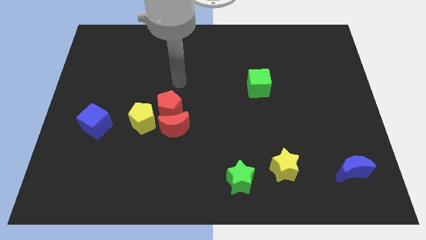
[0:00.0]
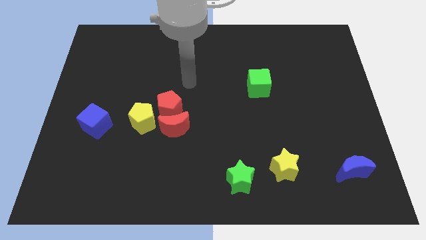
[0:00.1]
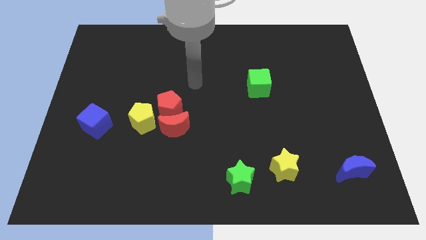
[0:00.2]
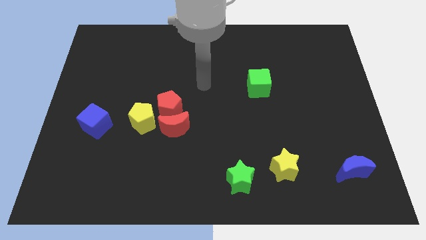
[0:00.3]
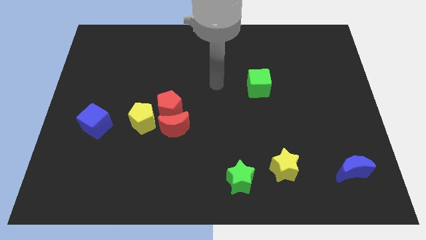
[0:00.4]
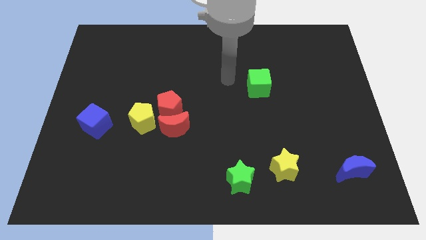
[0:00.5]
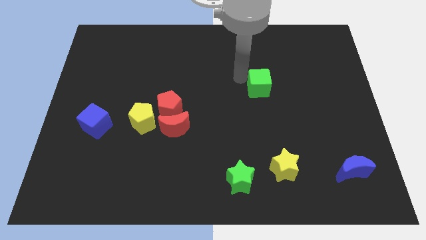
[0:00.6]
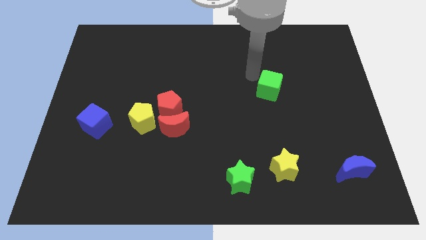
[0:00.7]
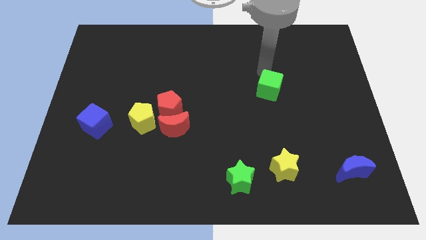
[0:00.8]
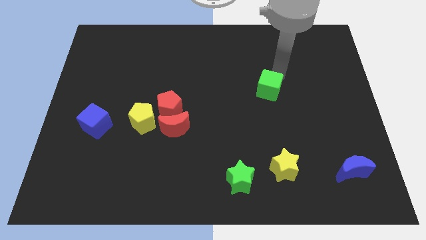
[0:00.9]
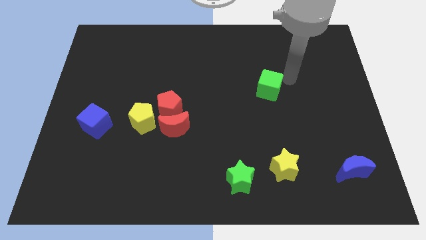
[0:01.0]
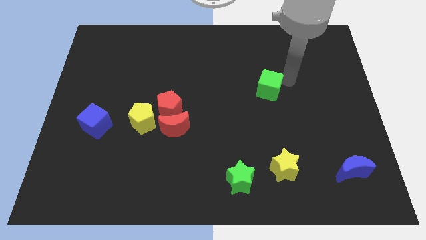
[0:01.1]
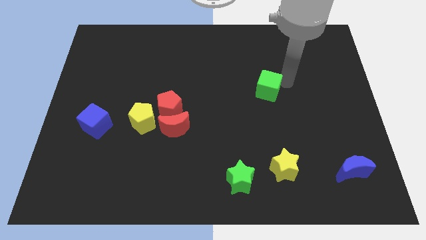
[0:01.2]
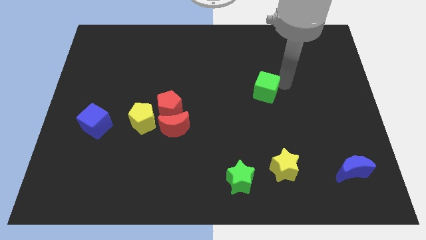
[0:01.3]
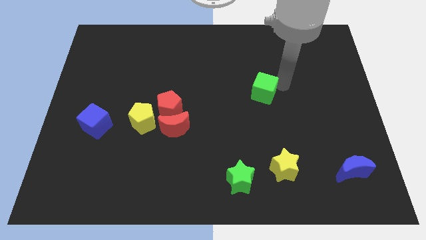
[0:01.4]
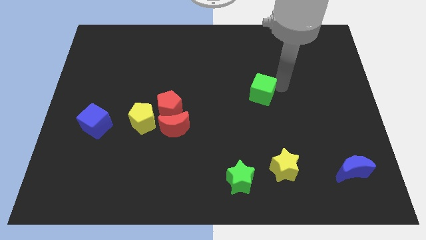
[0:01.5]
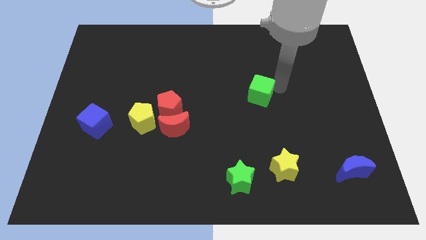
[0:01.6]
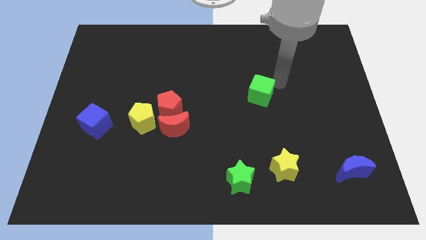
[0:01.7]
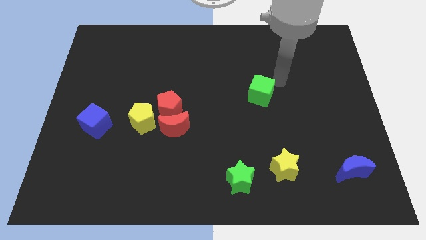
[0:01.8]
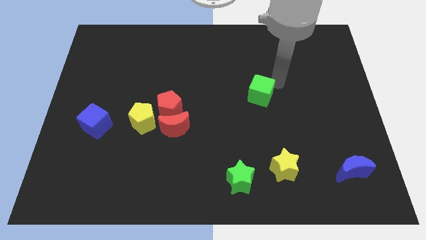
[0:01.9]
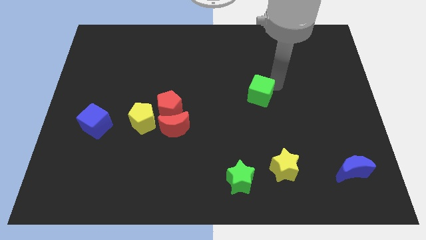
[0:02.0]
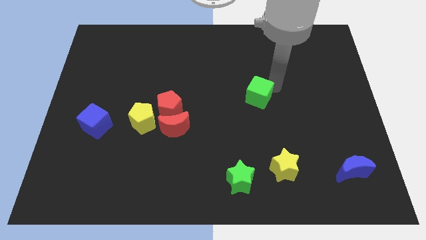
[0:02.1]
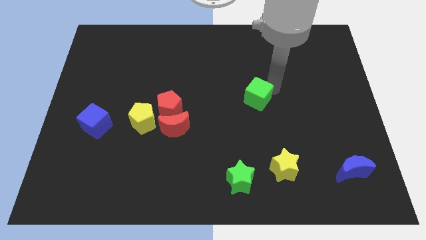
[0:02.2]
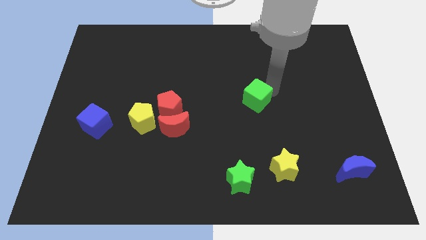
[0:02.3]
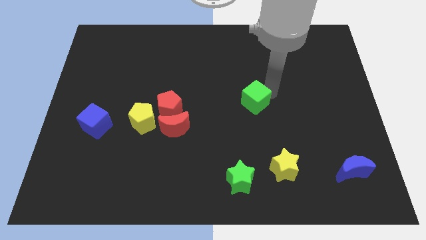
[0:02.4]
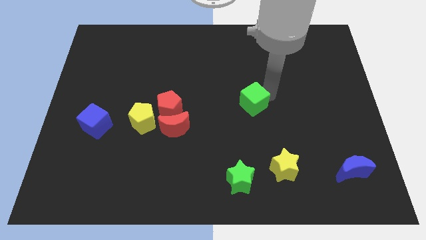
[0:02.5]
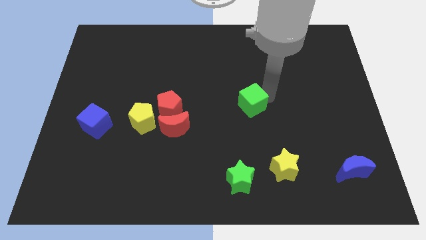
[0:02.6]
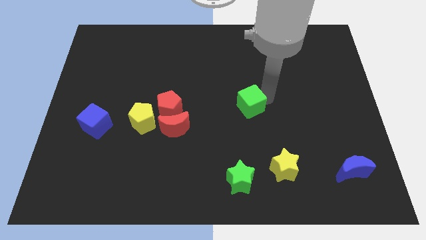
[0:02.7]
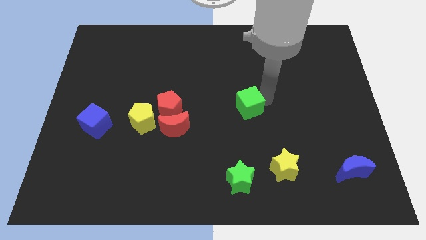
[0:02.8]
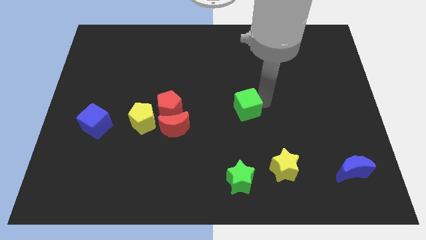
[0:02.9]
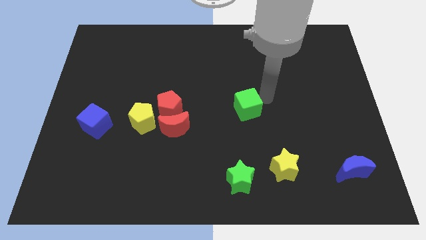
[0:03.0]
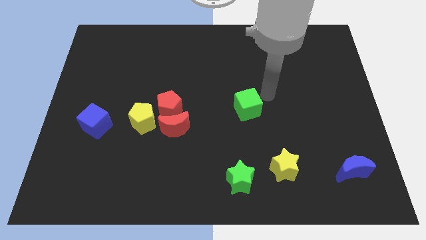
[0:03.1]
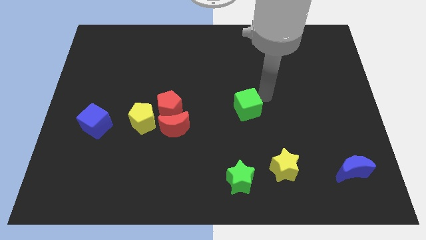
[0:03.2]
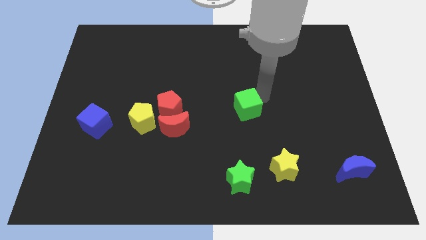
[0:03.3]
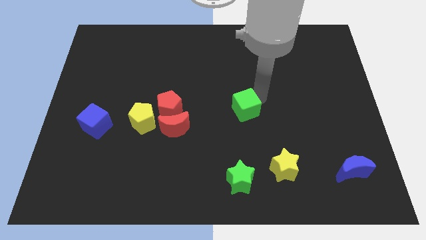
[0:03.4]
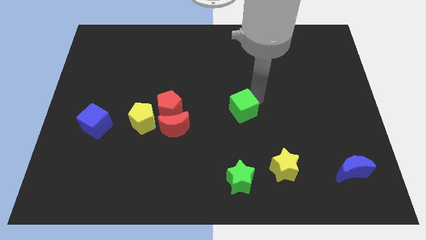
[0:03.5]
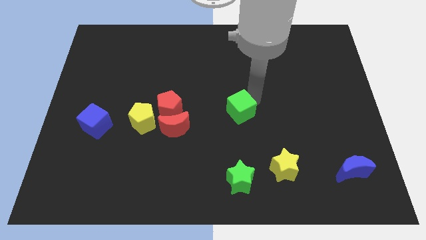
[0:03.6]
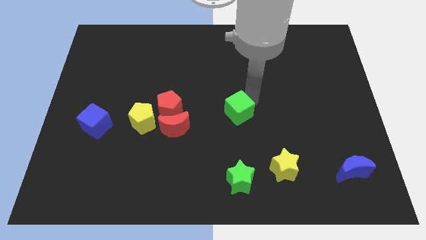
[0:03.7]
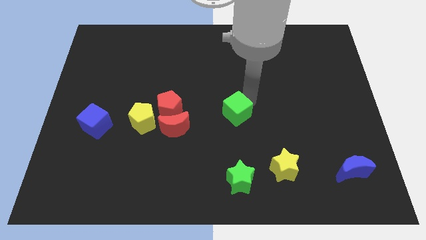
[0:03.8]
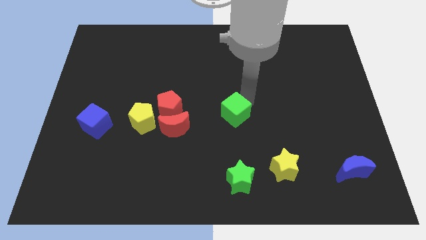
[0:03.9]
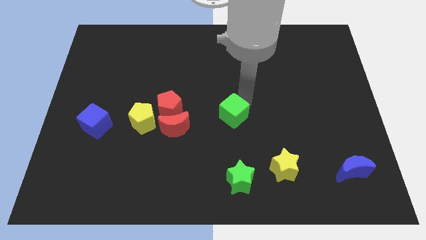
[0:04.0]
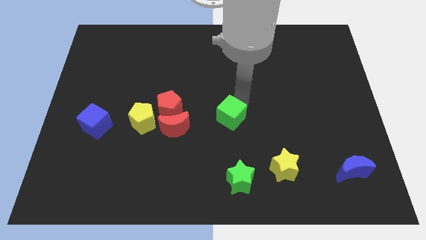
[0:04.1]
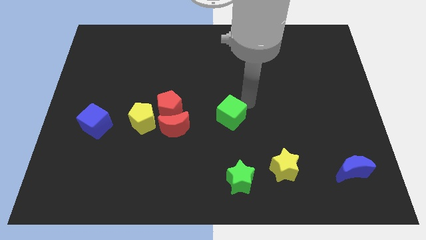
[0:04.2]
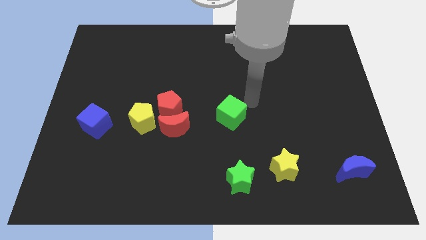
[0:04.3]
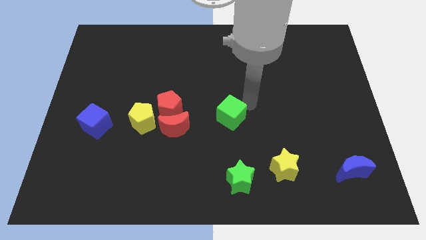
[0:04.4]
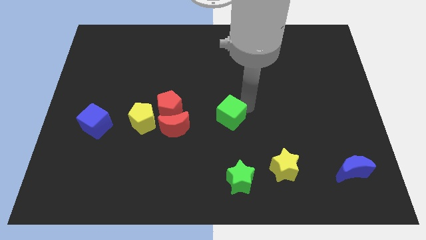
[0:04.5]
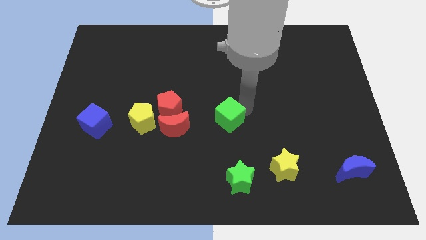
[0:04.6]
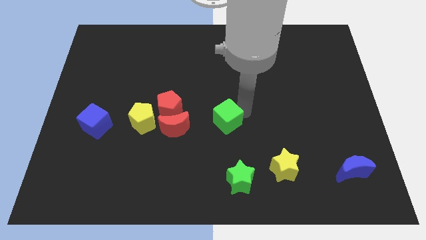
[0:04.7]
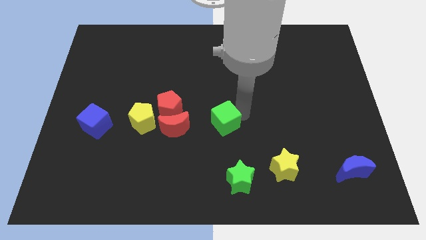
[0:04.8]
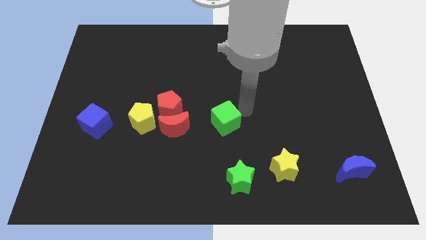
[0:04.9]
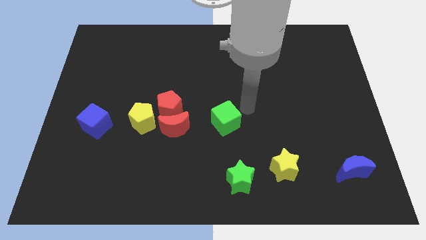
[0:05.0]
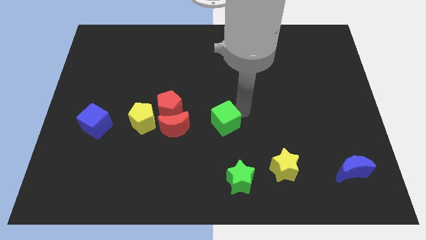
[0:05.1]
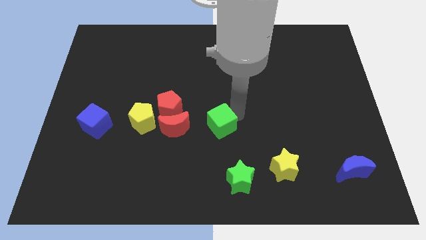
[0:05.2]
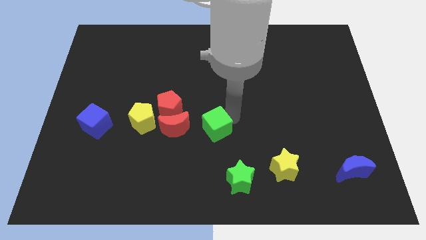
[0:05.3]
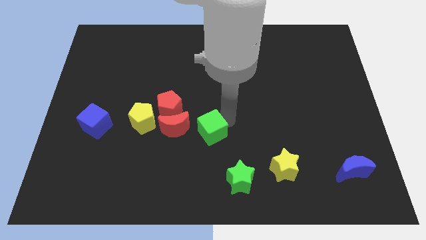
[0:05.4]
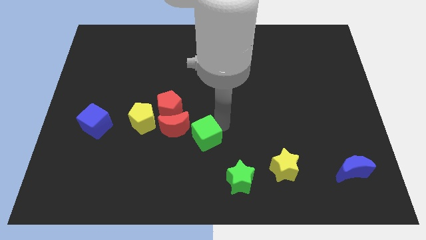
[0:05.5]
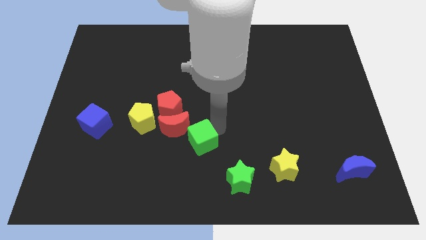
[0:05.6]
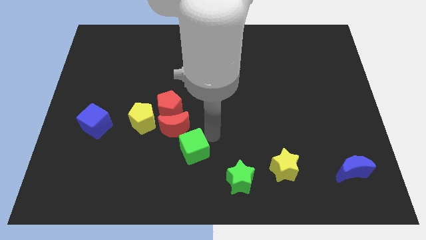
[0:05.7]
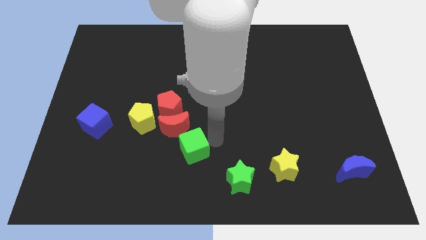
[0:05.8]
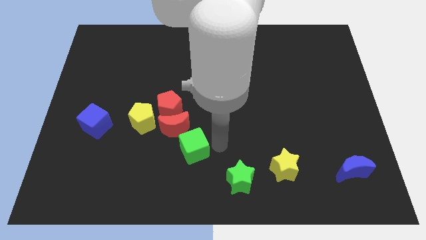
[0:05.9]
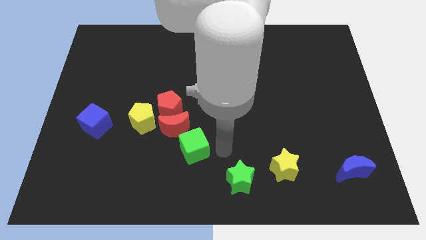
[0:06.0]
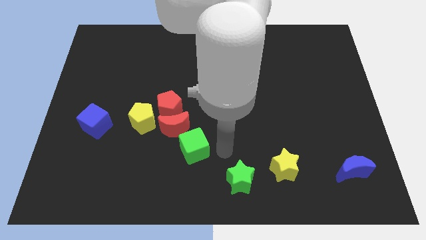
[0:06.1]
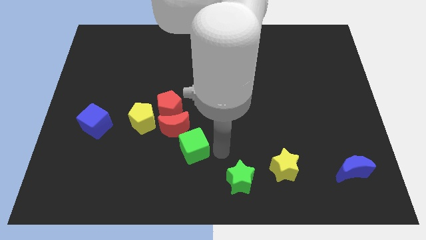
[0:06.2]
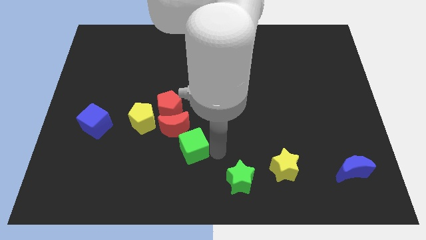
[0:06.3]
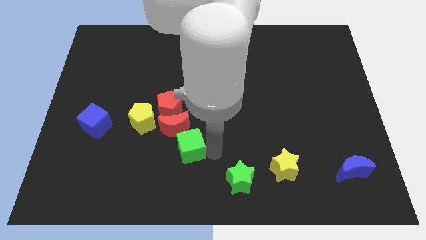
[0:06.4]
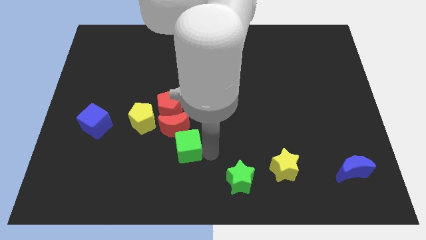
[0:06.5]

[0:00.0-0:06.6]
move the green cube below the red pentagon

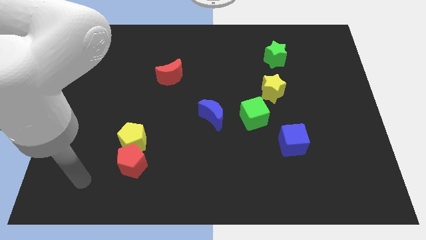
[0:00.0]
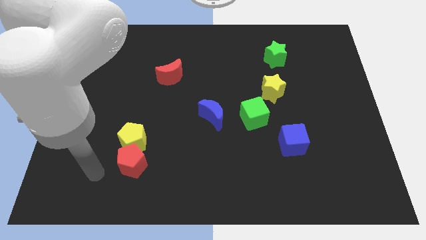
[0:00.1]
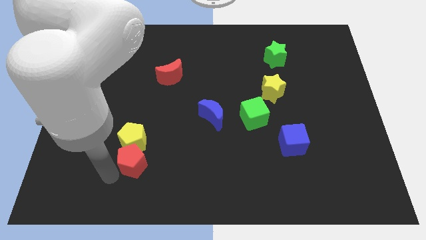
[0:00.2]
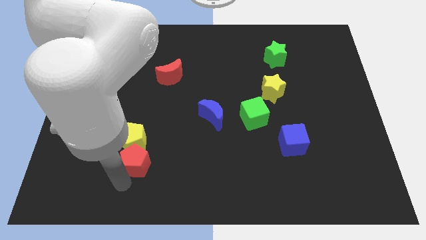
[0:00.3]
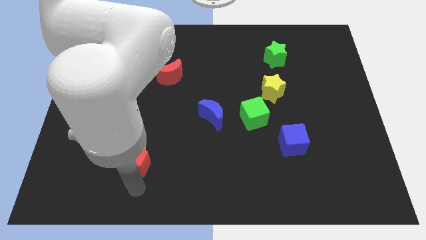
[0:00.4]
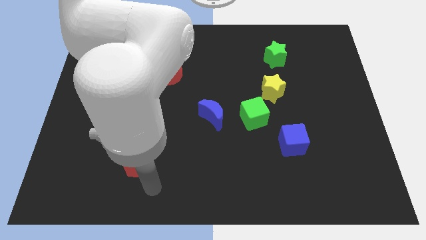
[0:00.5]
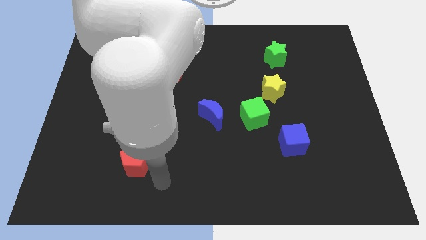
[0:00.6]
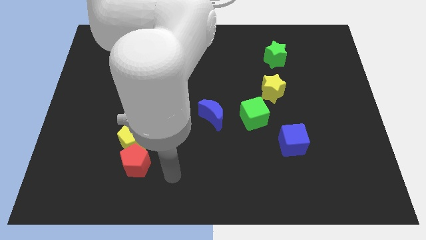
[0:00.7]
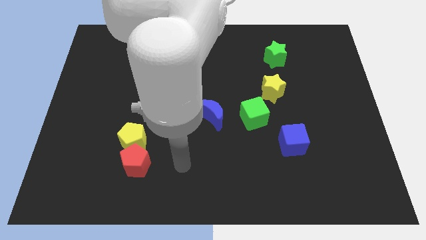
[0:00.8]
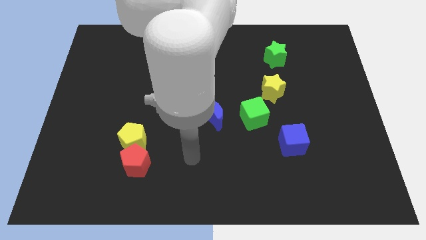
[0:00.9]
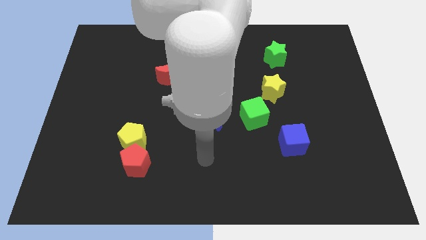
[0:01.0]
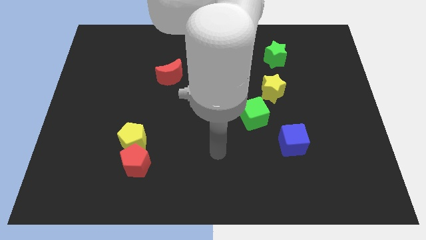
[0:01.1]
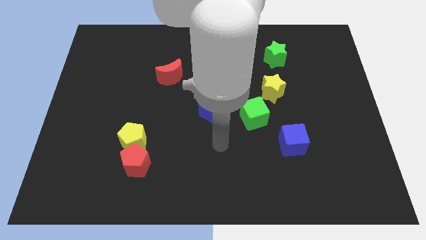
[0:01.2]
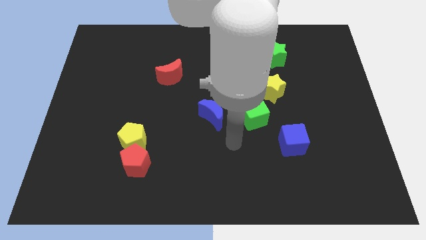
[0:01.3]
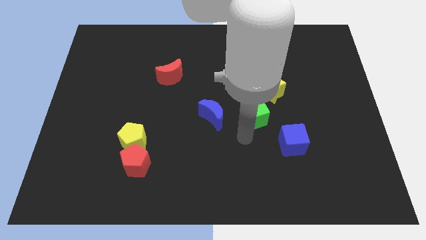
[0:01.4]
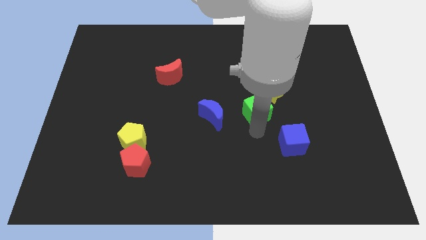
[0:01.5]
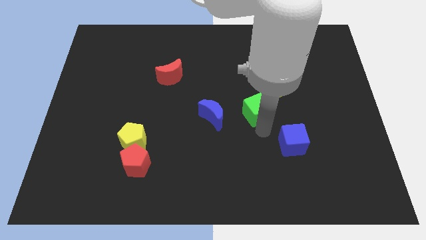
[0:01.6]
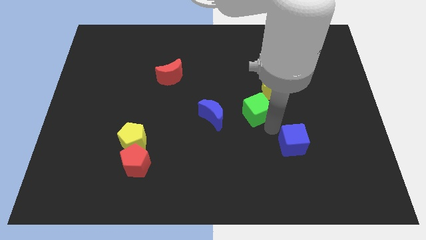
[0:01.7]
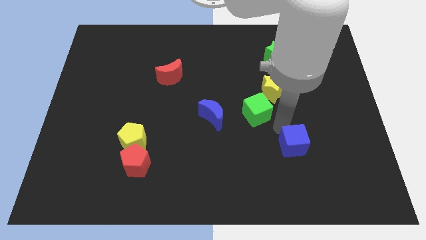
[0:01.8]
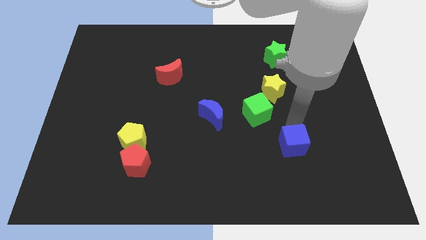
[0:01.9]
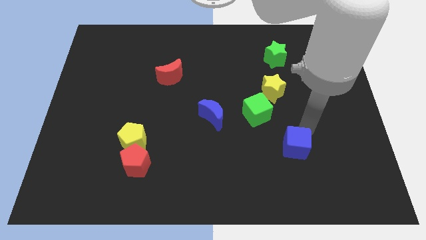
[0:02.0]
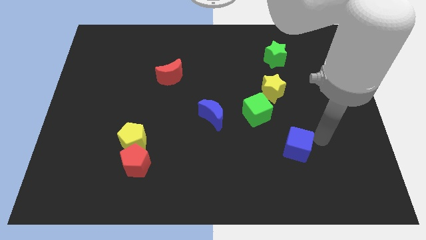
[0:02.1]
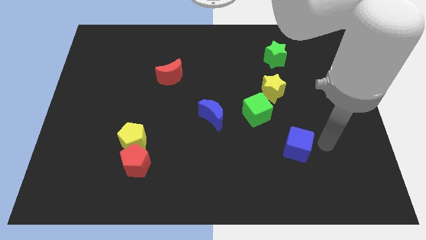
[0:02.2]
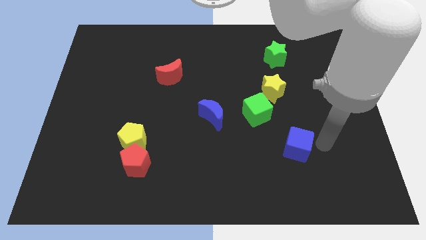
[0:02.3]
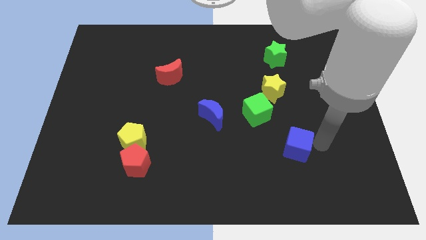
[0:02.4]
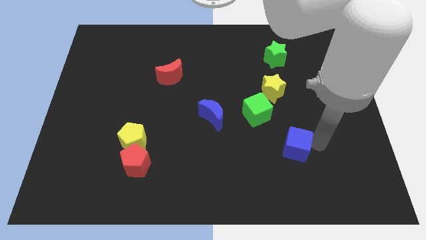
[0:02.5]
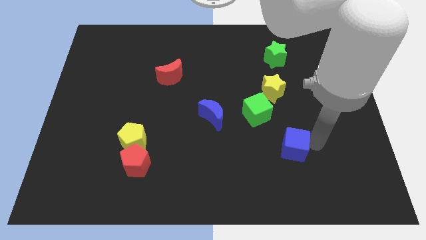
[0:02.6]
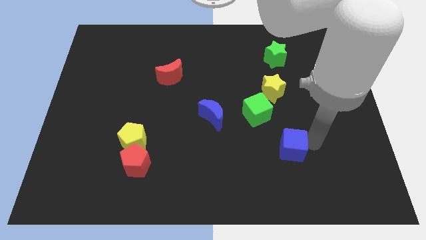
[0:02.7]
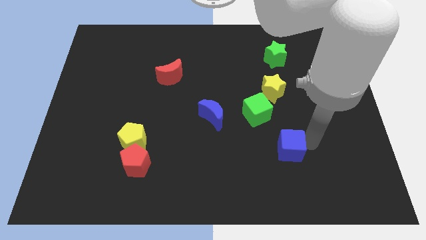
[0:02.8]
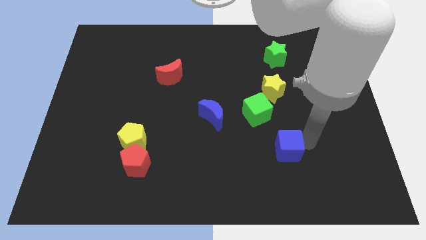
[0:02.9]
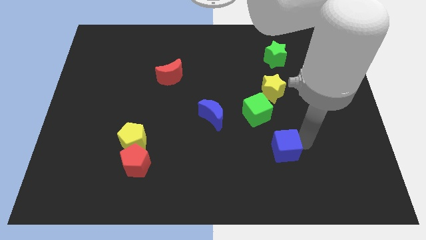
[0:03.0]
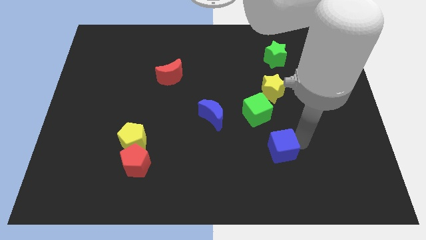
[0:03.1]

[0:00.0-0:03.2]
slide the blue cube below the green cube
